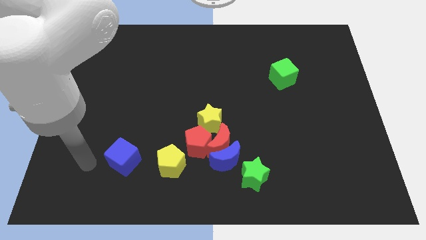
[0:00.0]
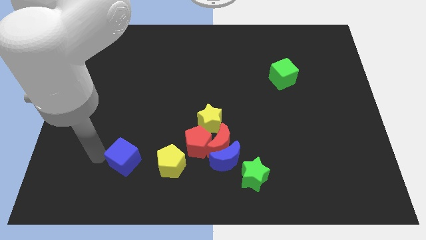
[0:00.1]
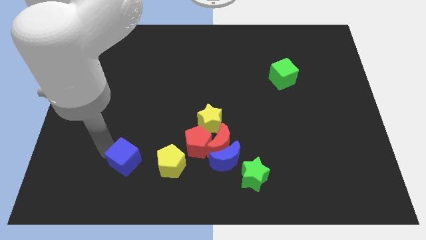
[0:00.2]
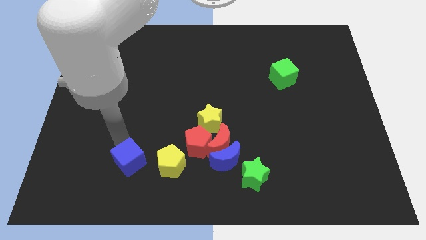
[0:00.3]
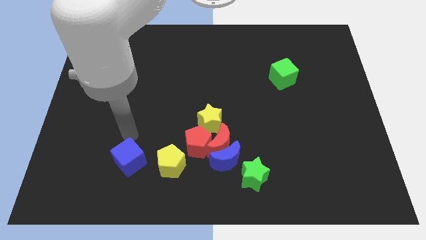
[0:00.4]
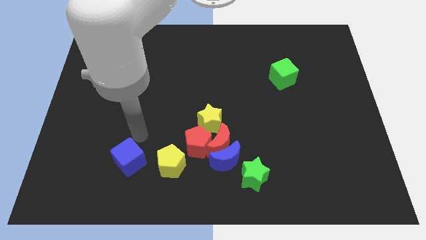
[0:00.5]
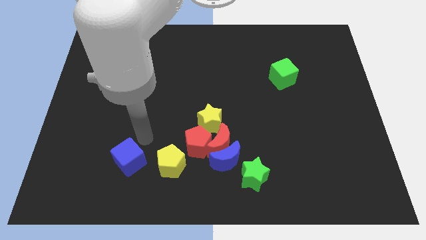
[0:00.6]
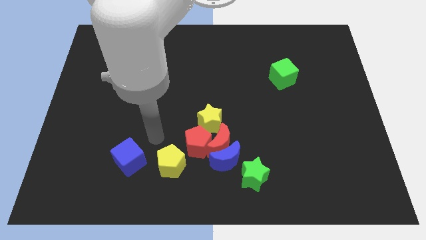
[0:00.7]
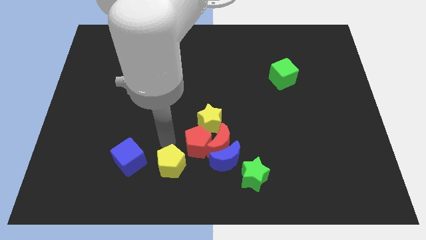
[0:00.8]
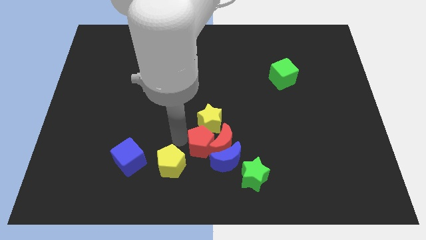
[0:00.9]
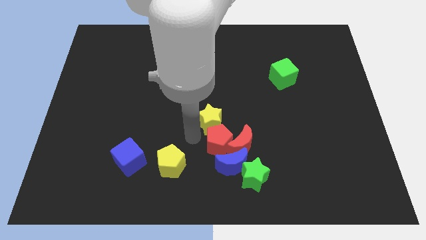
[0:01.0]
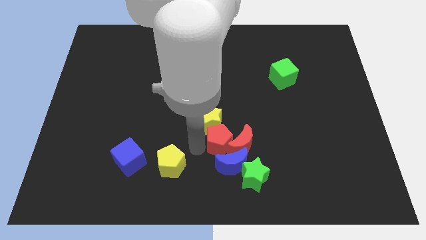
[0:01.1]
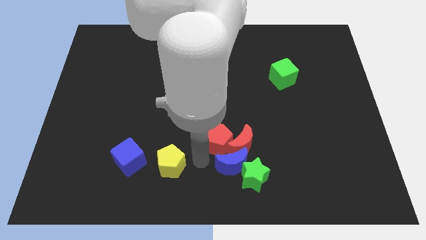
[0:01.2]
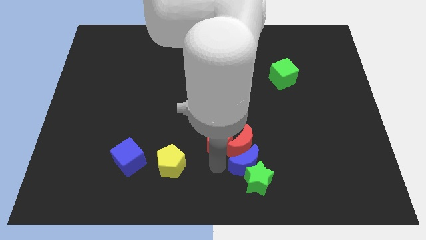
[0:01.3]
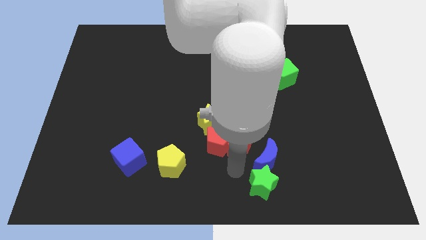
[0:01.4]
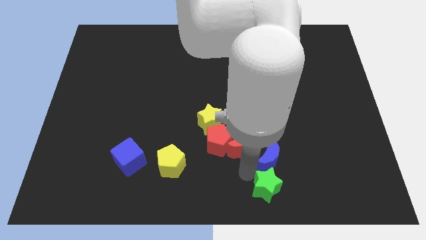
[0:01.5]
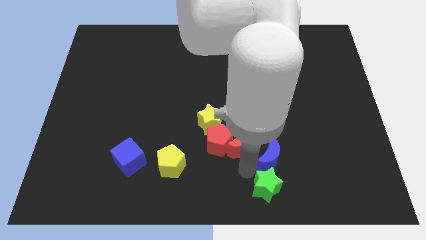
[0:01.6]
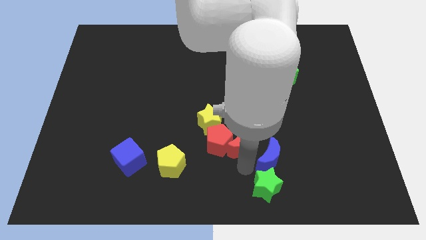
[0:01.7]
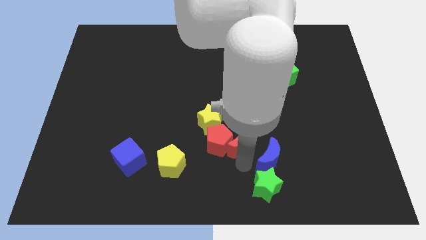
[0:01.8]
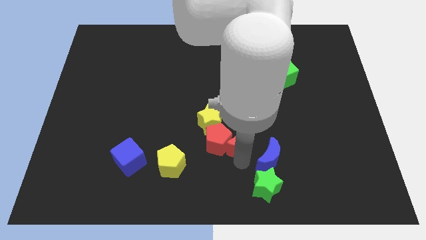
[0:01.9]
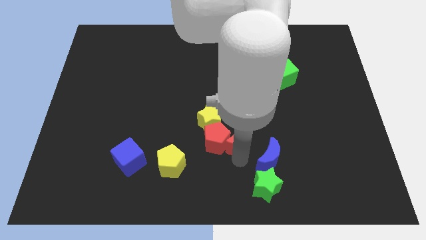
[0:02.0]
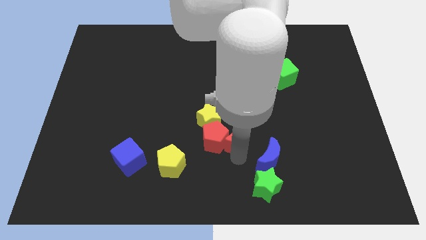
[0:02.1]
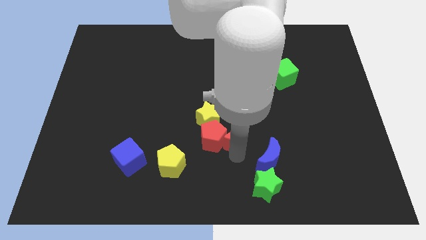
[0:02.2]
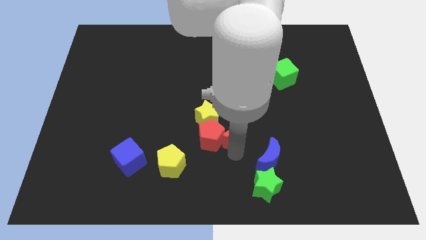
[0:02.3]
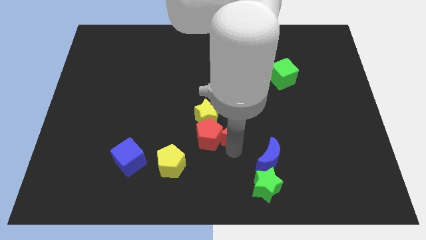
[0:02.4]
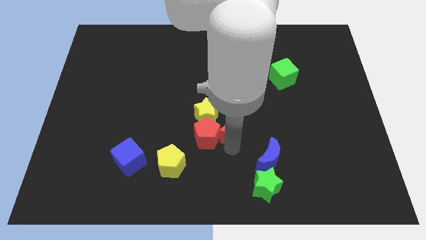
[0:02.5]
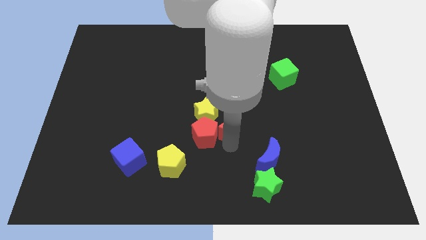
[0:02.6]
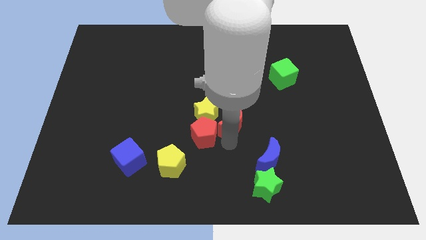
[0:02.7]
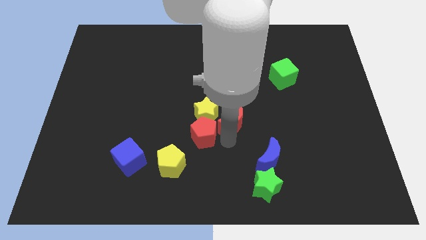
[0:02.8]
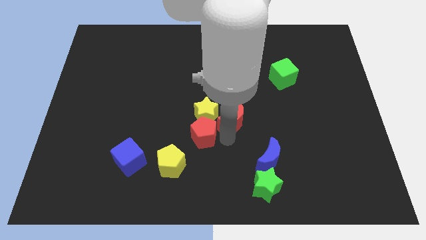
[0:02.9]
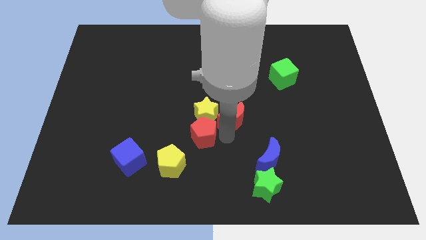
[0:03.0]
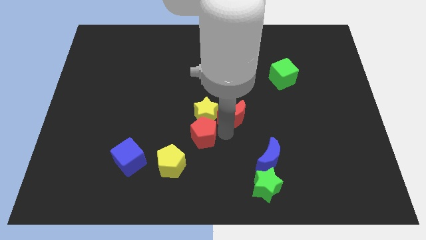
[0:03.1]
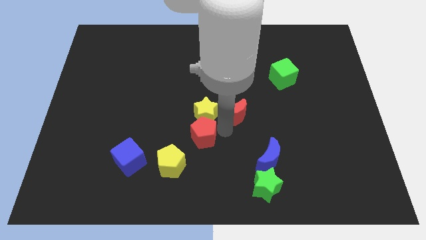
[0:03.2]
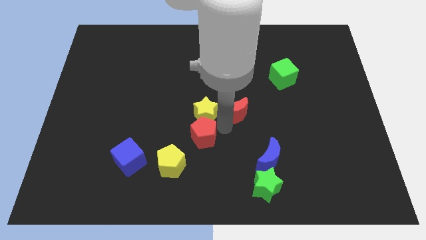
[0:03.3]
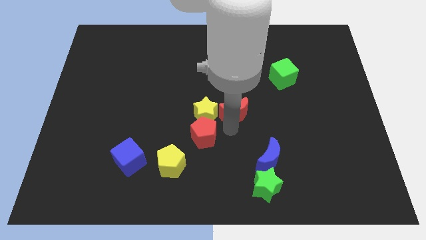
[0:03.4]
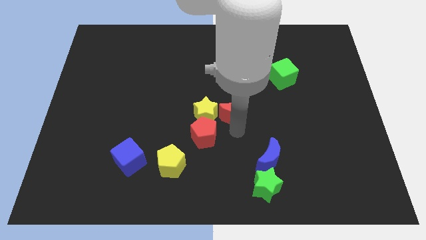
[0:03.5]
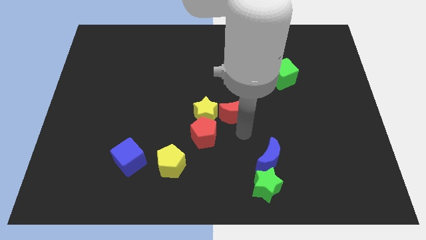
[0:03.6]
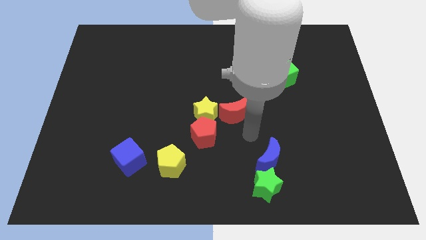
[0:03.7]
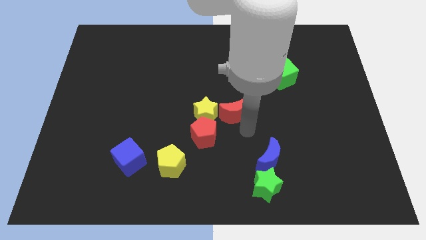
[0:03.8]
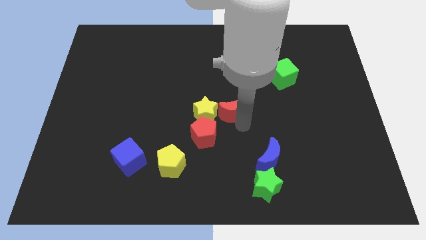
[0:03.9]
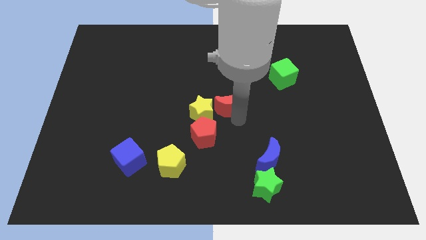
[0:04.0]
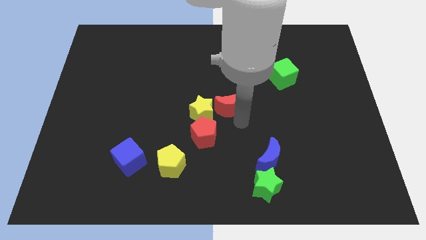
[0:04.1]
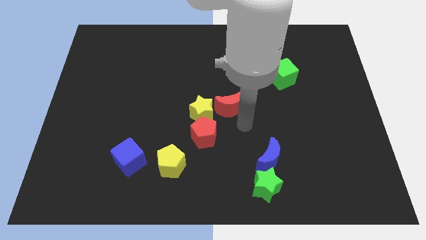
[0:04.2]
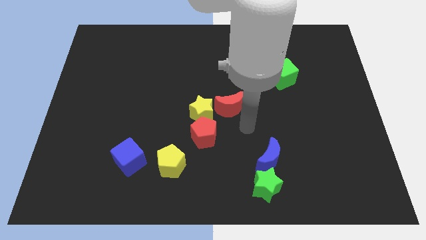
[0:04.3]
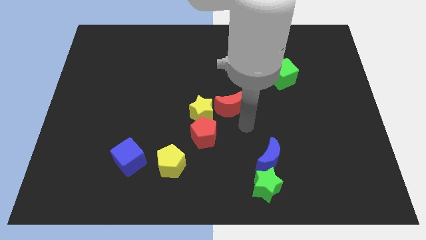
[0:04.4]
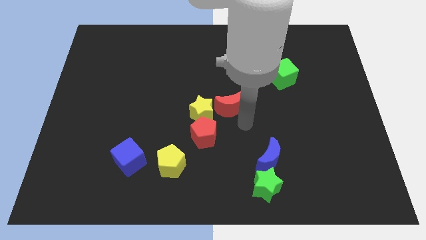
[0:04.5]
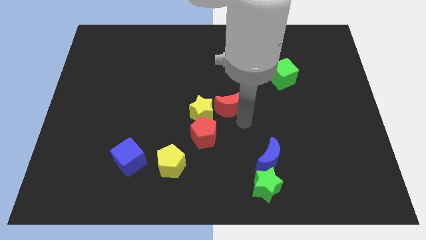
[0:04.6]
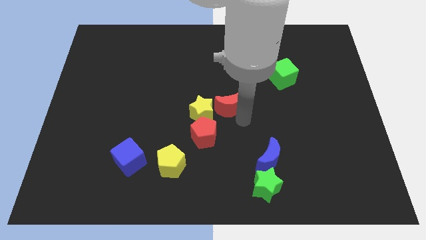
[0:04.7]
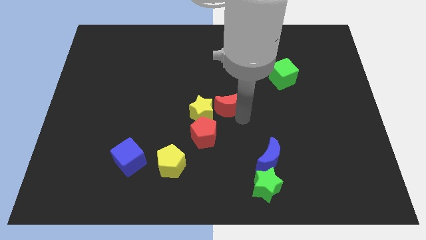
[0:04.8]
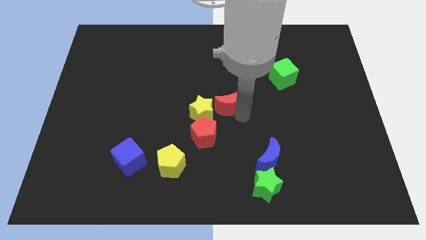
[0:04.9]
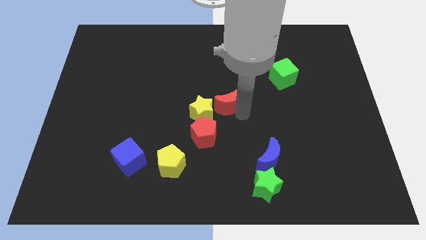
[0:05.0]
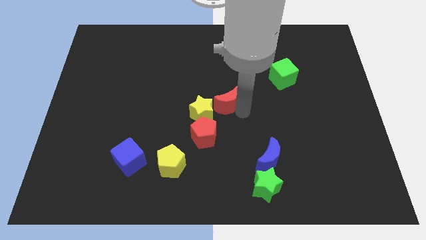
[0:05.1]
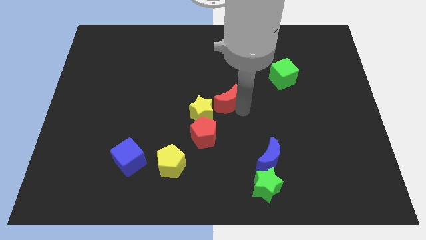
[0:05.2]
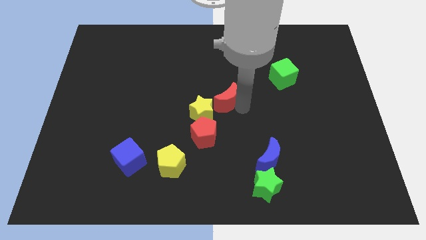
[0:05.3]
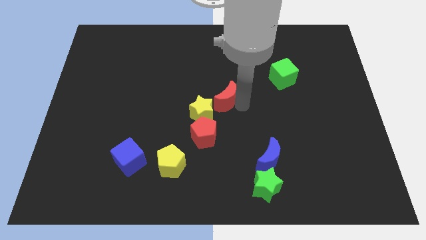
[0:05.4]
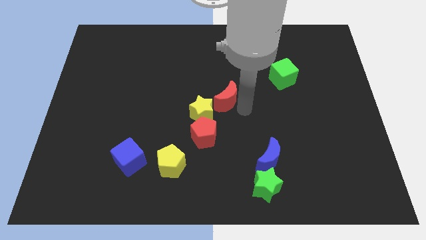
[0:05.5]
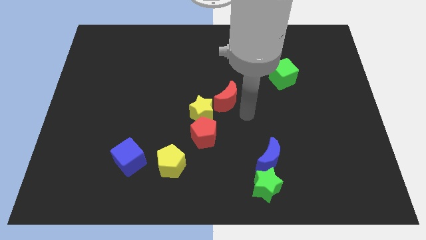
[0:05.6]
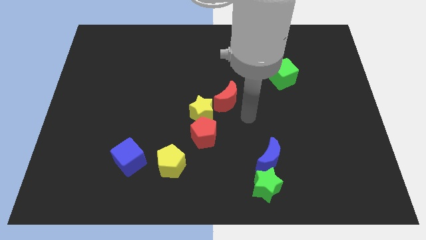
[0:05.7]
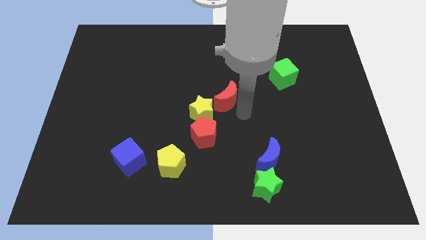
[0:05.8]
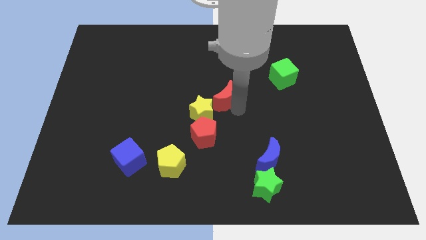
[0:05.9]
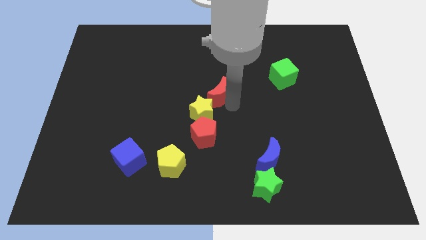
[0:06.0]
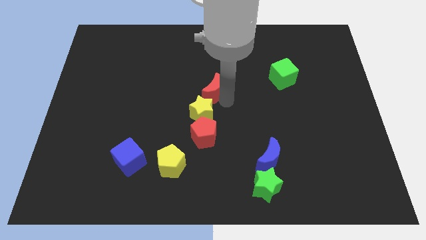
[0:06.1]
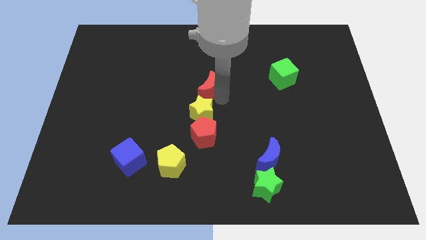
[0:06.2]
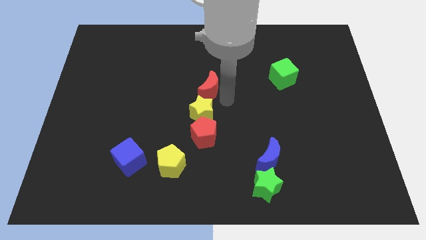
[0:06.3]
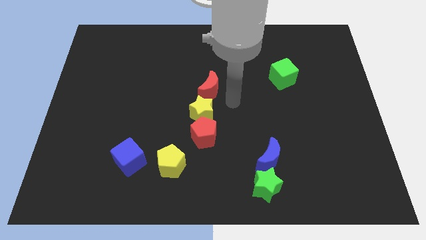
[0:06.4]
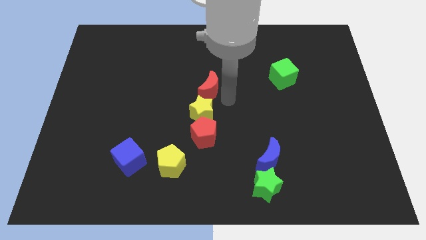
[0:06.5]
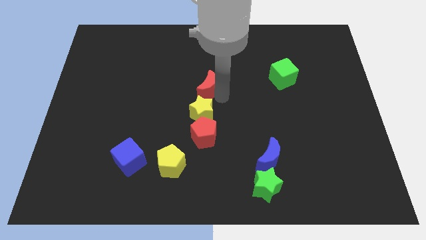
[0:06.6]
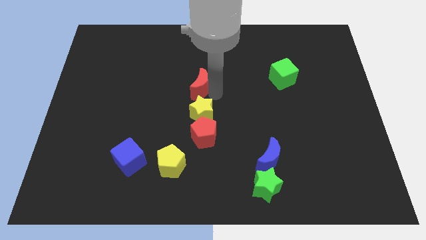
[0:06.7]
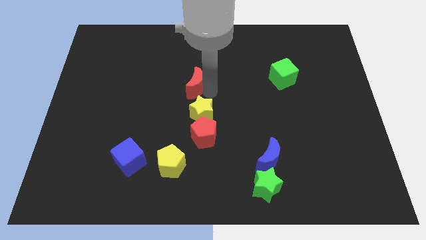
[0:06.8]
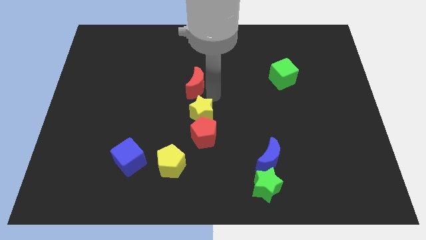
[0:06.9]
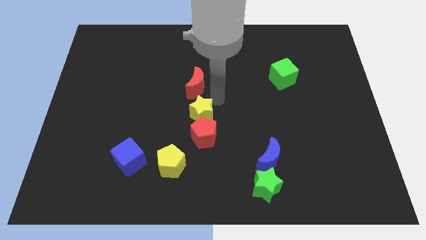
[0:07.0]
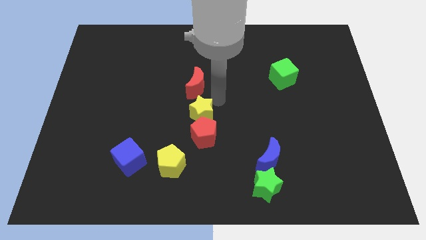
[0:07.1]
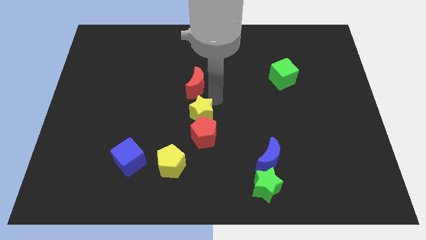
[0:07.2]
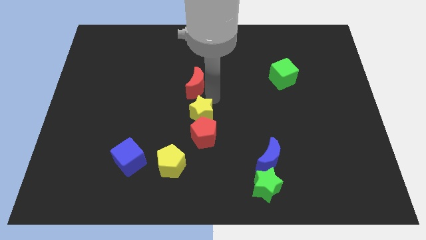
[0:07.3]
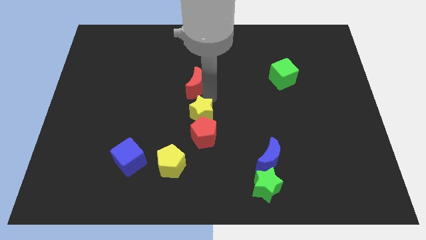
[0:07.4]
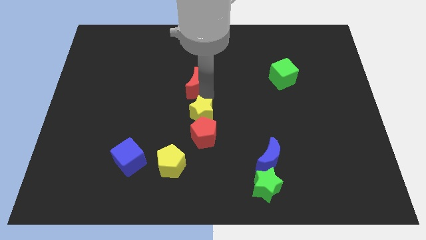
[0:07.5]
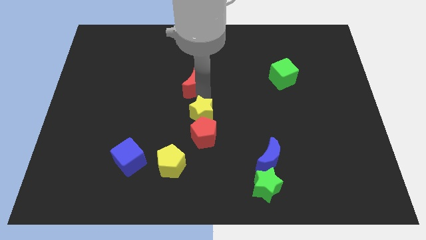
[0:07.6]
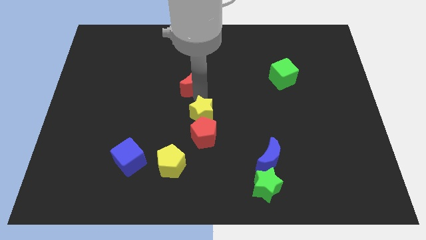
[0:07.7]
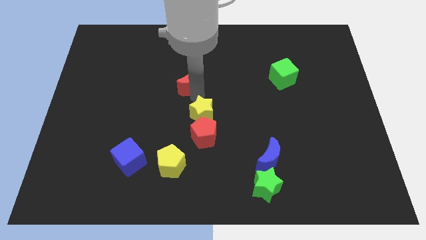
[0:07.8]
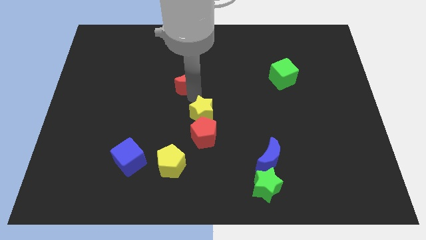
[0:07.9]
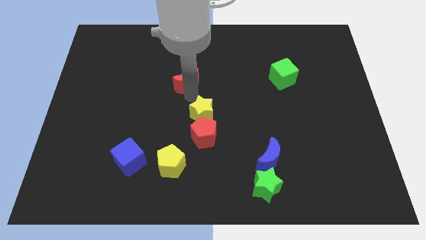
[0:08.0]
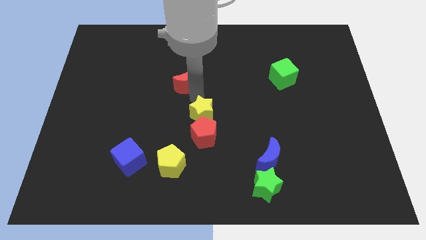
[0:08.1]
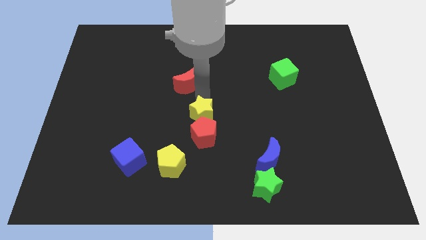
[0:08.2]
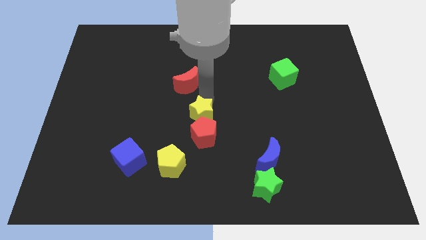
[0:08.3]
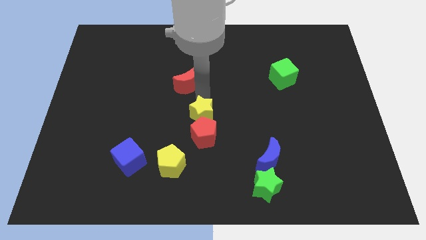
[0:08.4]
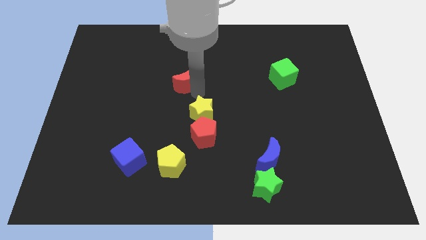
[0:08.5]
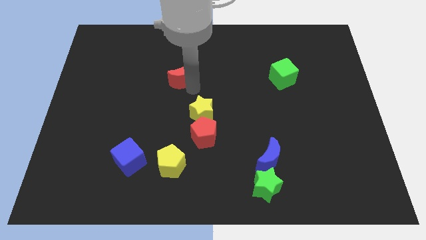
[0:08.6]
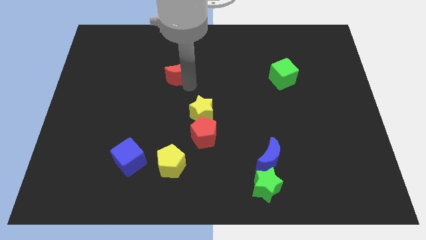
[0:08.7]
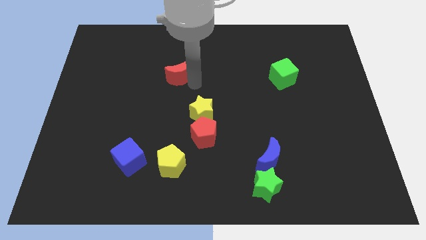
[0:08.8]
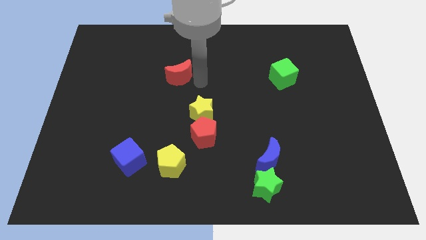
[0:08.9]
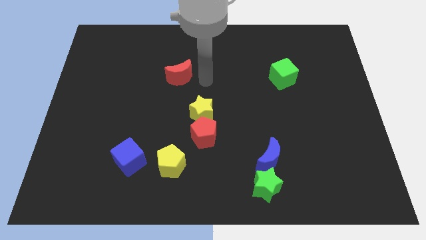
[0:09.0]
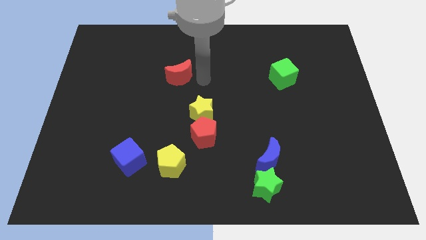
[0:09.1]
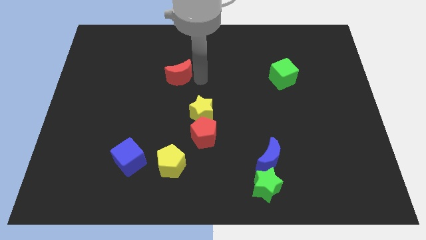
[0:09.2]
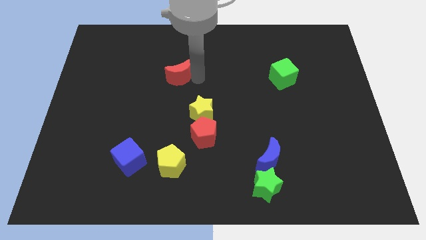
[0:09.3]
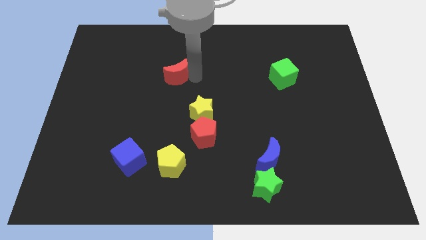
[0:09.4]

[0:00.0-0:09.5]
push the red moon diagonally up and to the left
